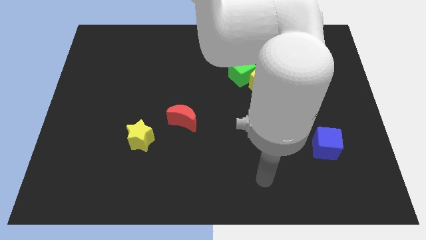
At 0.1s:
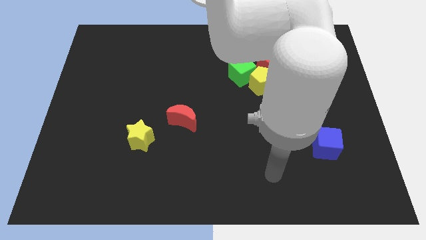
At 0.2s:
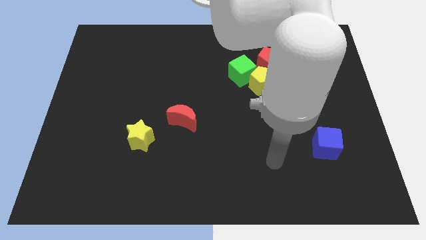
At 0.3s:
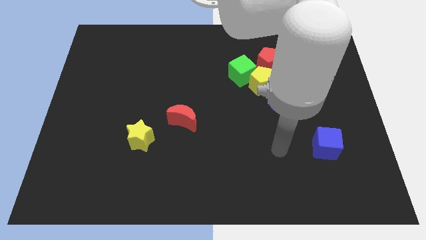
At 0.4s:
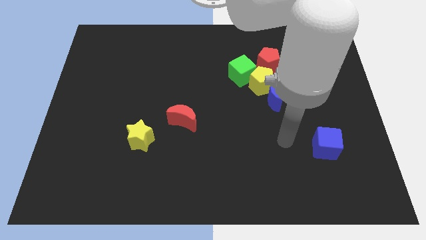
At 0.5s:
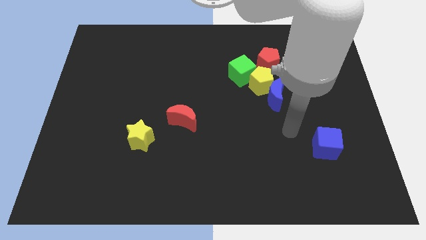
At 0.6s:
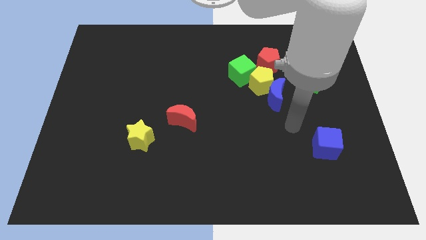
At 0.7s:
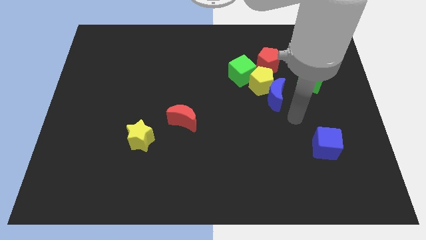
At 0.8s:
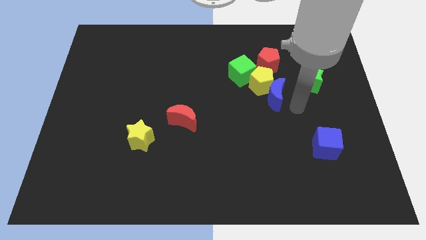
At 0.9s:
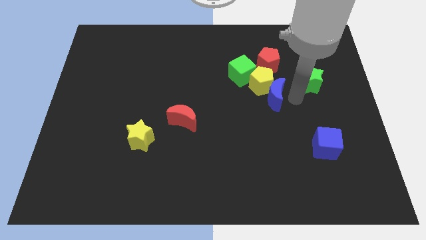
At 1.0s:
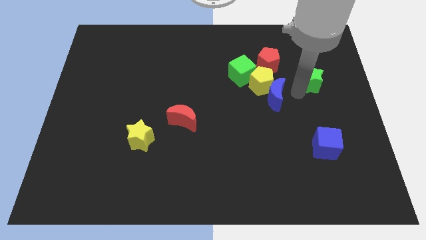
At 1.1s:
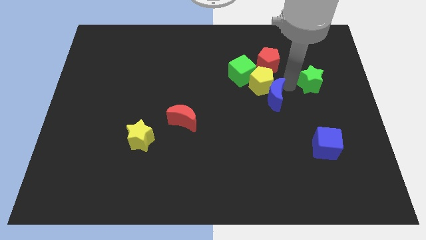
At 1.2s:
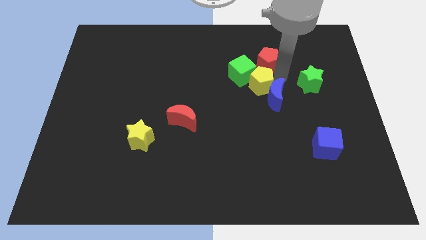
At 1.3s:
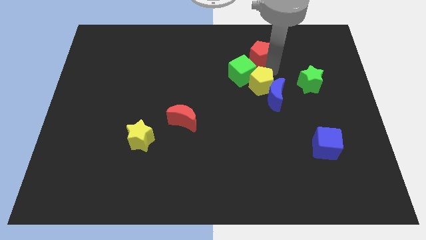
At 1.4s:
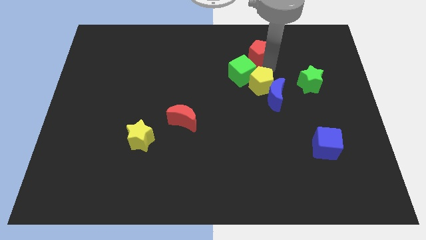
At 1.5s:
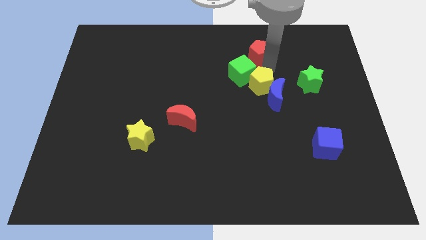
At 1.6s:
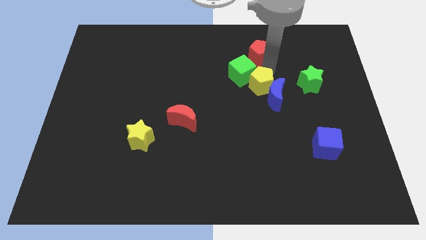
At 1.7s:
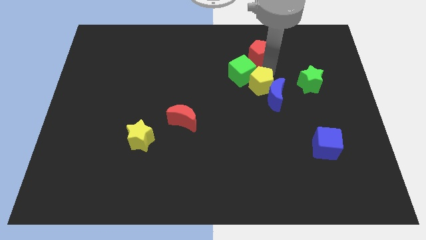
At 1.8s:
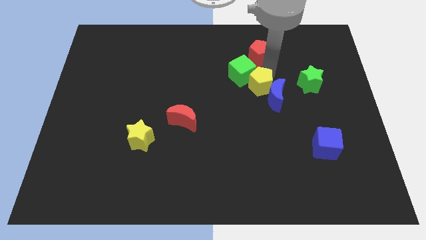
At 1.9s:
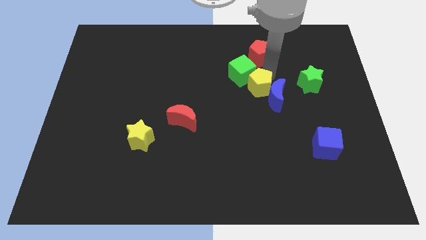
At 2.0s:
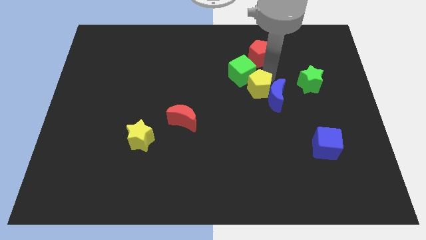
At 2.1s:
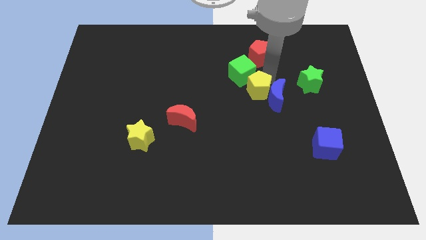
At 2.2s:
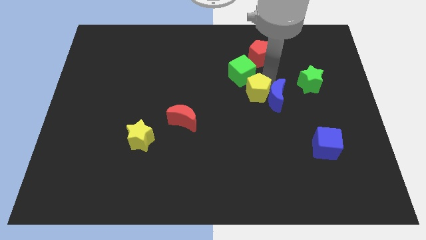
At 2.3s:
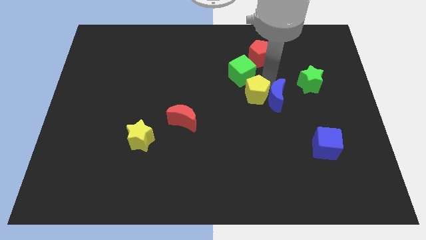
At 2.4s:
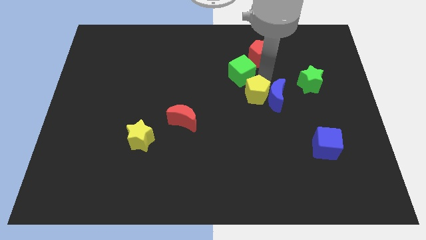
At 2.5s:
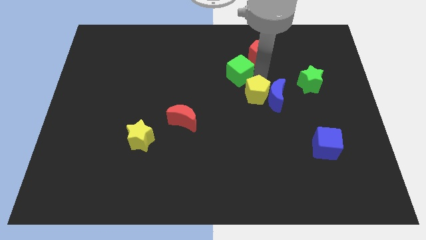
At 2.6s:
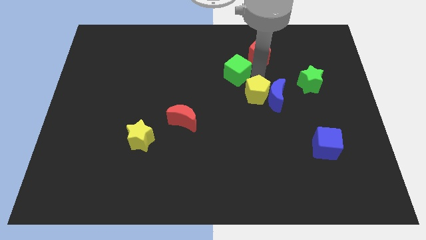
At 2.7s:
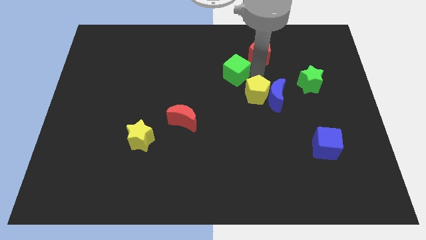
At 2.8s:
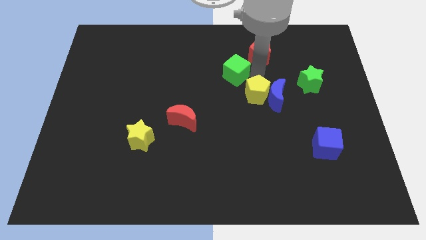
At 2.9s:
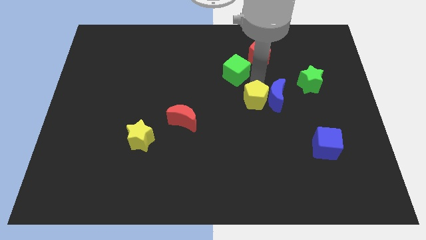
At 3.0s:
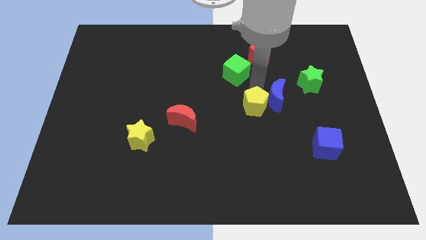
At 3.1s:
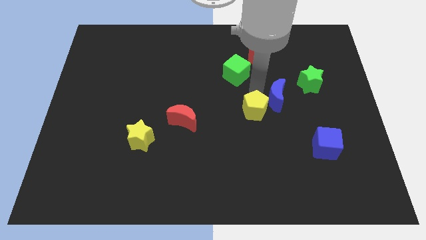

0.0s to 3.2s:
pull the yellow pentagon apart from the blue moon, green cube, and red pentagon

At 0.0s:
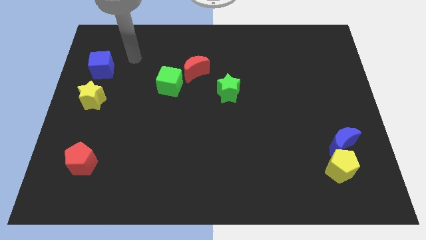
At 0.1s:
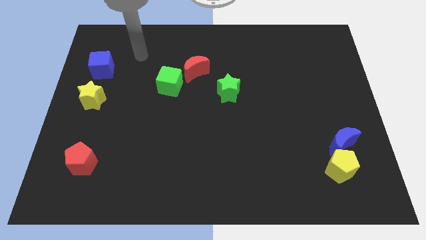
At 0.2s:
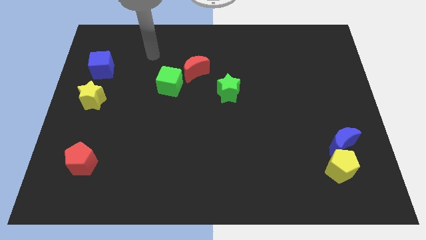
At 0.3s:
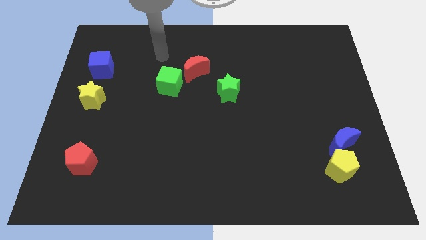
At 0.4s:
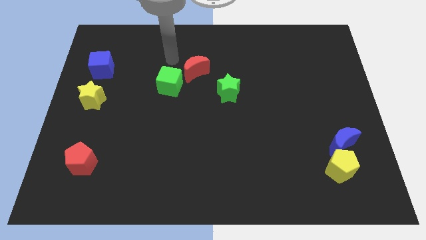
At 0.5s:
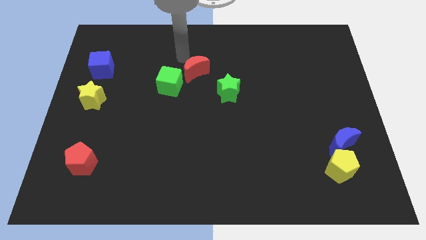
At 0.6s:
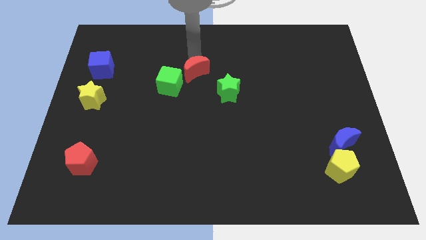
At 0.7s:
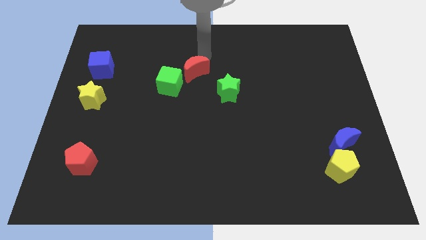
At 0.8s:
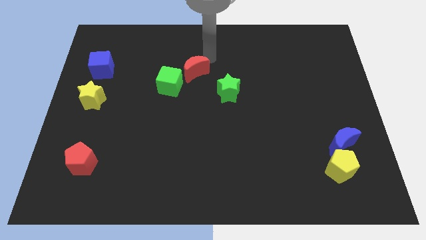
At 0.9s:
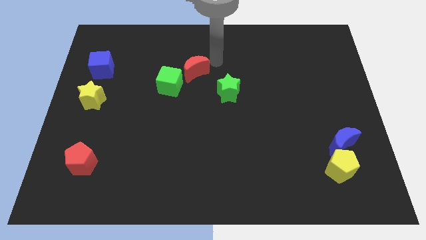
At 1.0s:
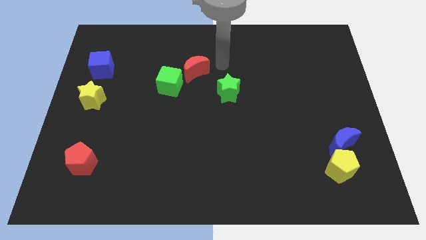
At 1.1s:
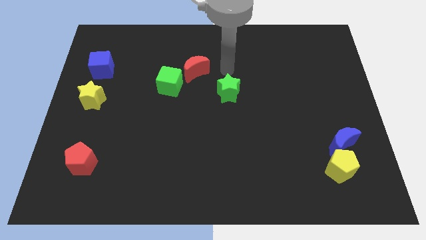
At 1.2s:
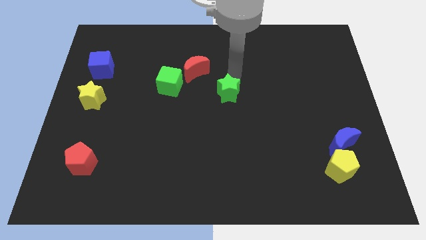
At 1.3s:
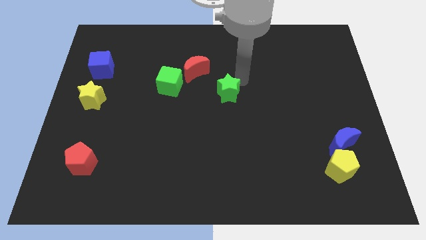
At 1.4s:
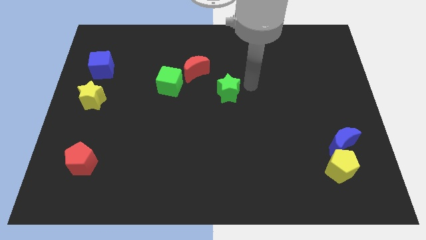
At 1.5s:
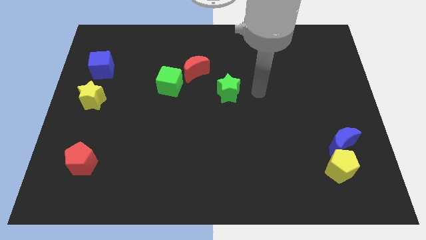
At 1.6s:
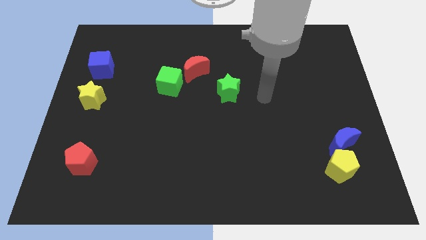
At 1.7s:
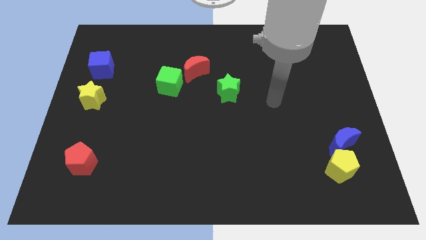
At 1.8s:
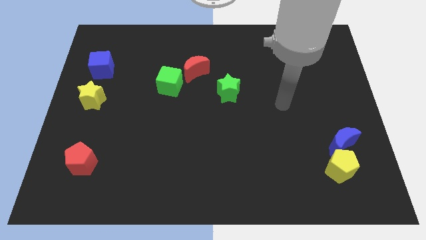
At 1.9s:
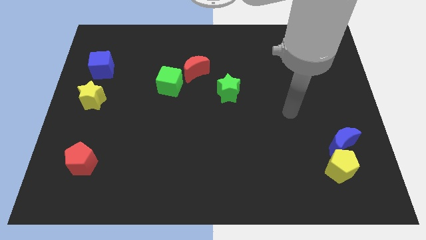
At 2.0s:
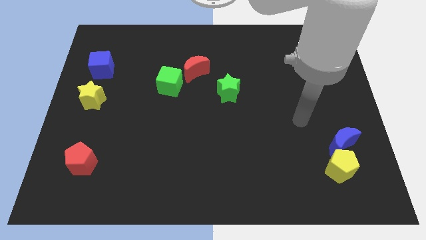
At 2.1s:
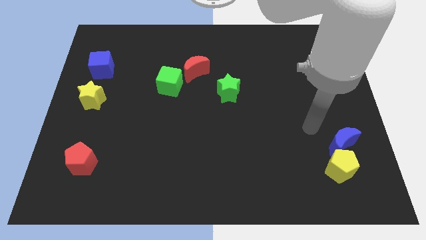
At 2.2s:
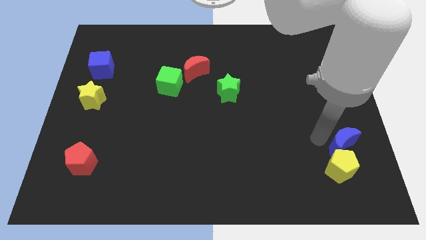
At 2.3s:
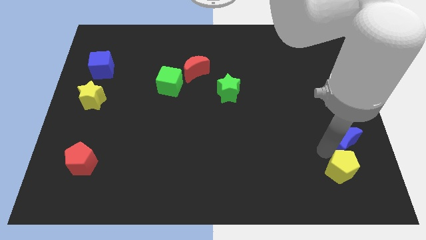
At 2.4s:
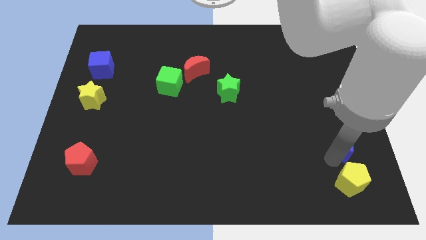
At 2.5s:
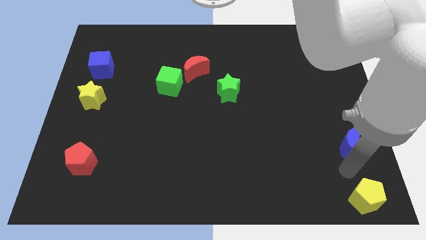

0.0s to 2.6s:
pull the blue moon apart from the yellow pentagon

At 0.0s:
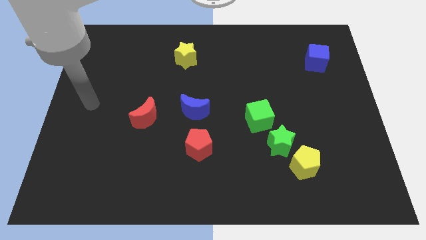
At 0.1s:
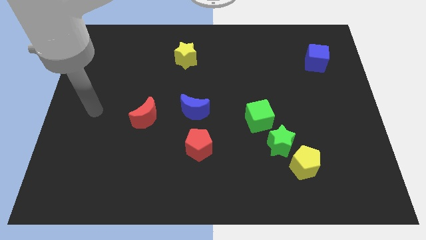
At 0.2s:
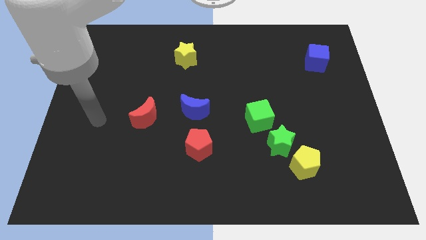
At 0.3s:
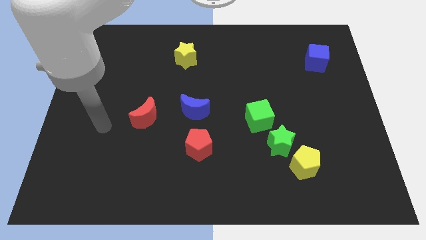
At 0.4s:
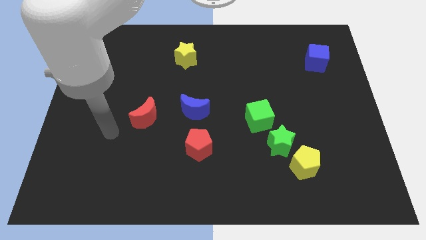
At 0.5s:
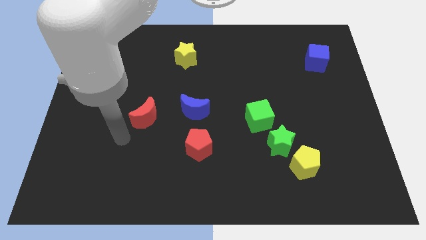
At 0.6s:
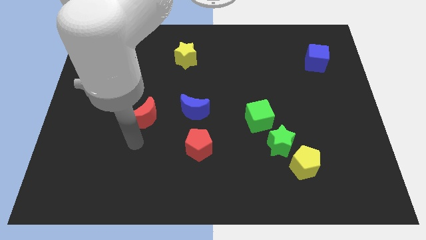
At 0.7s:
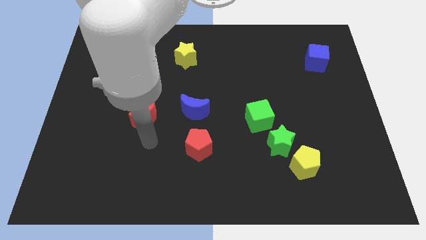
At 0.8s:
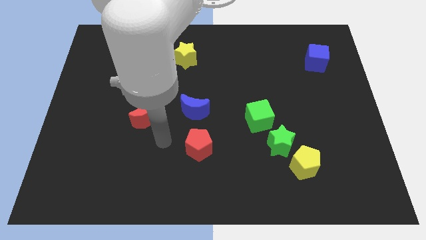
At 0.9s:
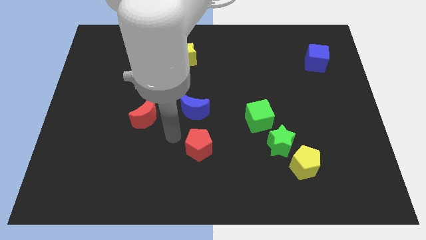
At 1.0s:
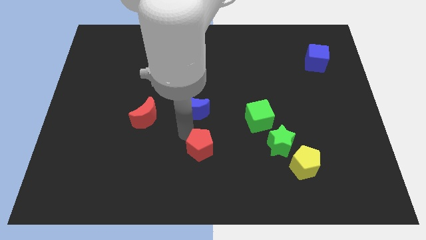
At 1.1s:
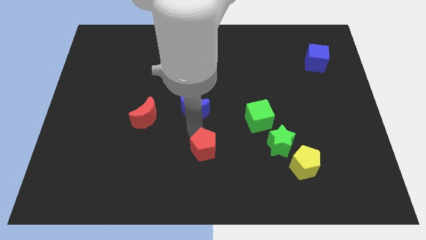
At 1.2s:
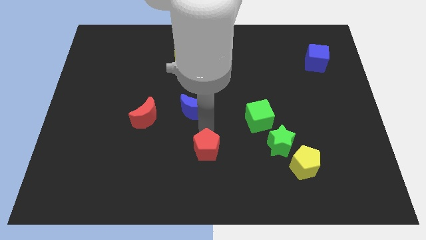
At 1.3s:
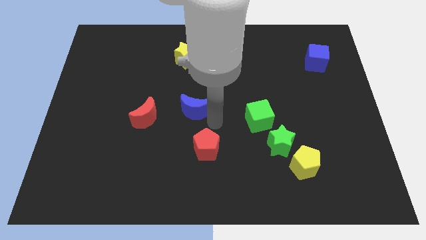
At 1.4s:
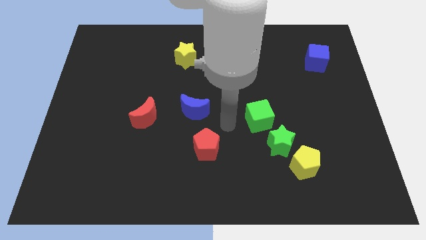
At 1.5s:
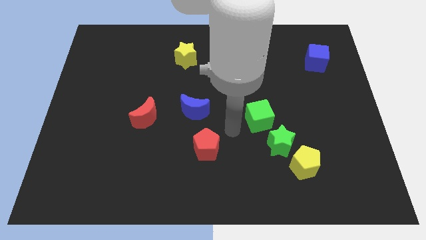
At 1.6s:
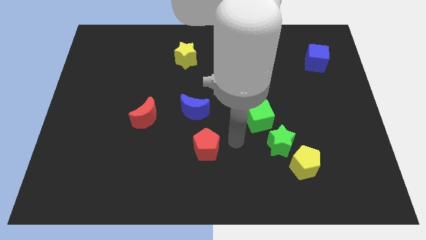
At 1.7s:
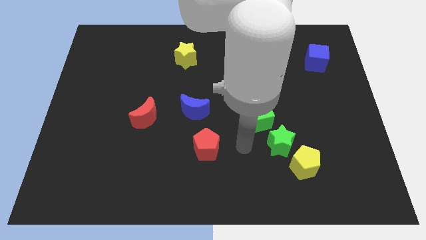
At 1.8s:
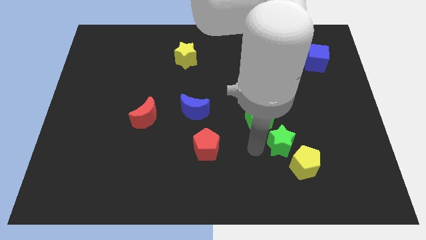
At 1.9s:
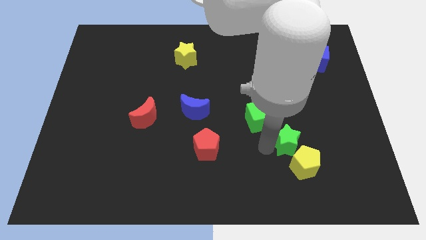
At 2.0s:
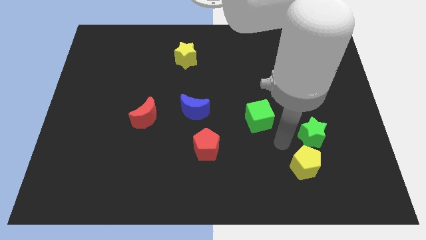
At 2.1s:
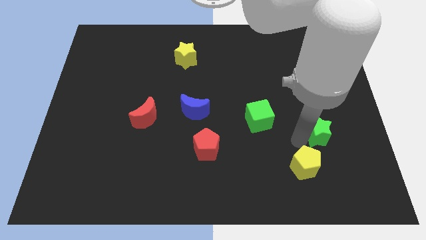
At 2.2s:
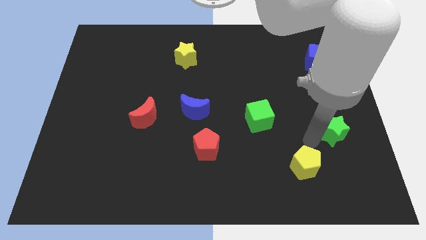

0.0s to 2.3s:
separate the yellow pentagon from the green star

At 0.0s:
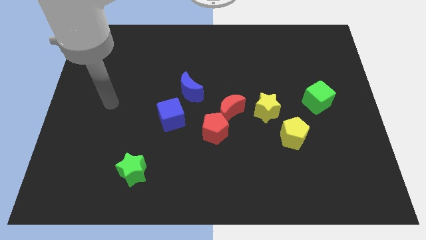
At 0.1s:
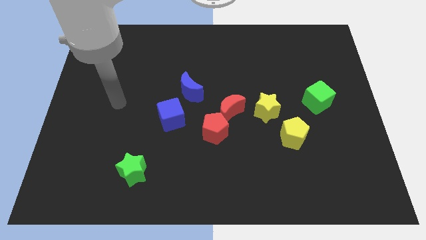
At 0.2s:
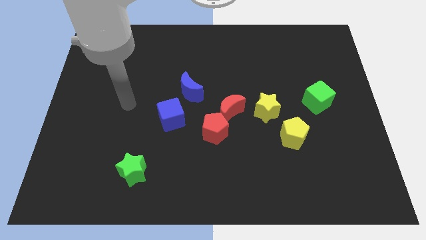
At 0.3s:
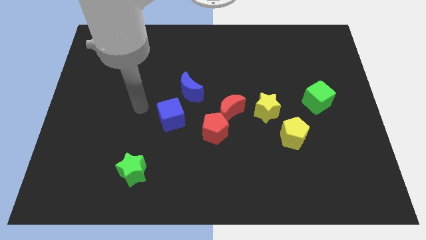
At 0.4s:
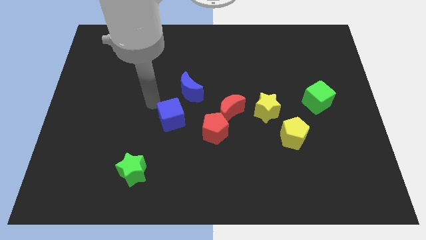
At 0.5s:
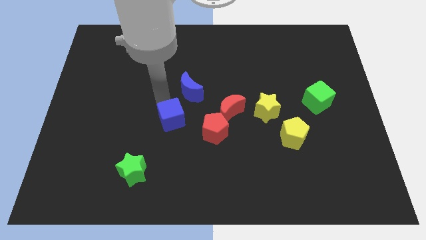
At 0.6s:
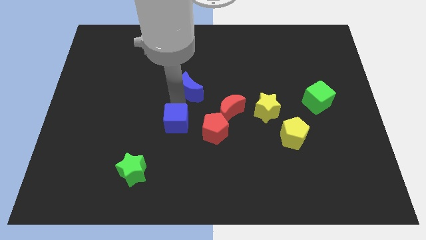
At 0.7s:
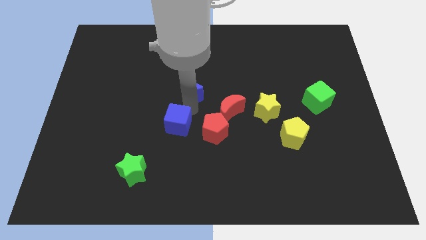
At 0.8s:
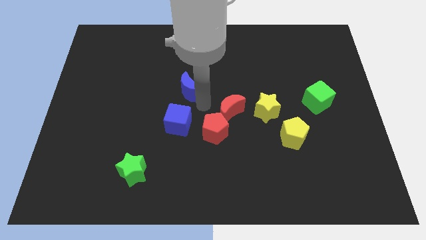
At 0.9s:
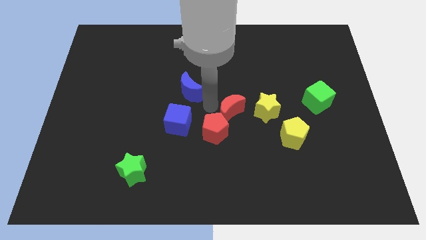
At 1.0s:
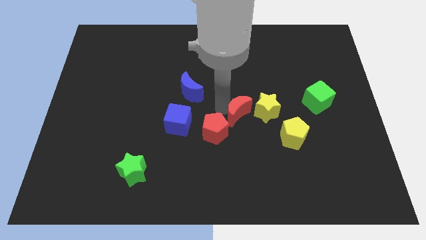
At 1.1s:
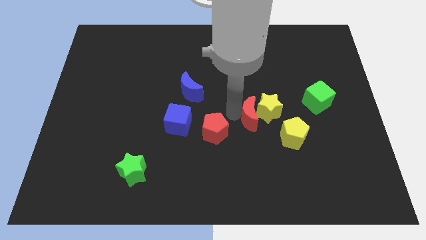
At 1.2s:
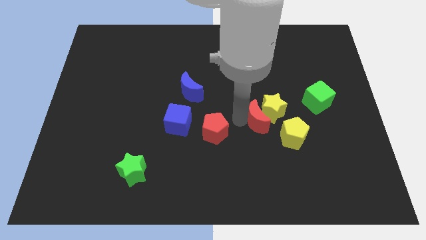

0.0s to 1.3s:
pull the red pentagon apart from the red moon
